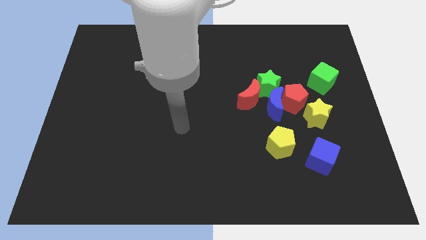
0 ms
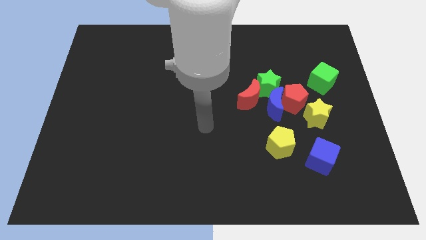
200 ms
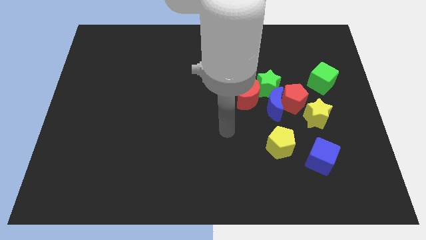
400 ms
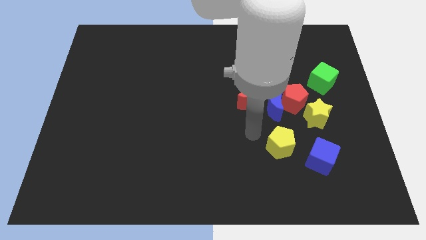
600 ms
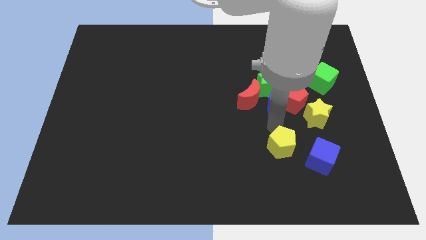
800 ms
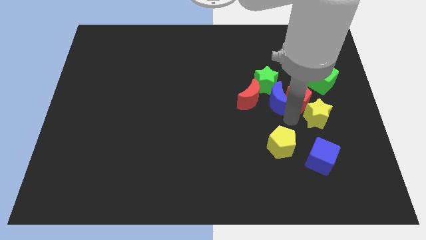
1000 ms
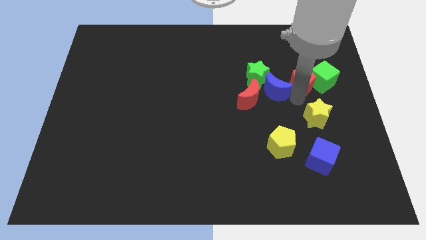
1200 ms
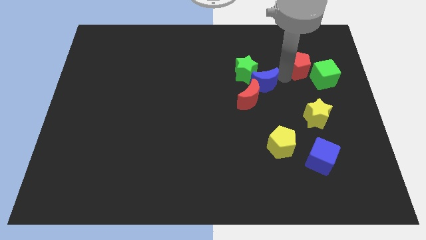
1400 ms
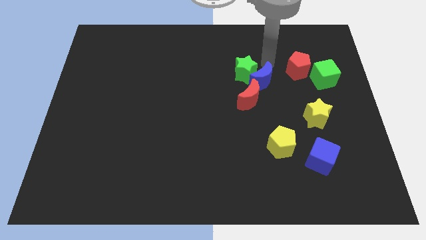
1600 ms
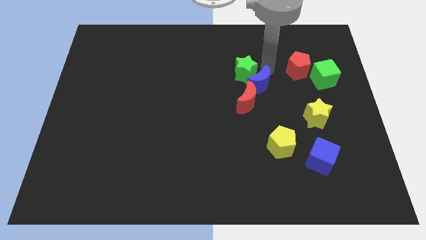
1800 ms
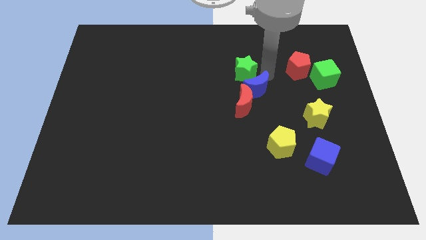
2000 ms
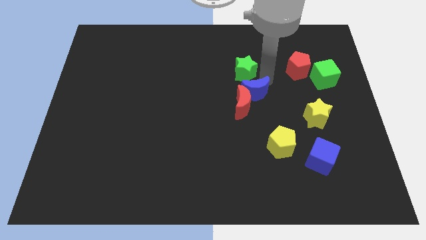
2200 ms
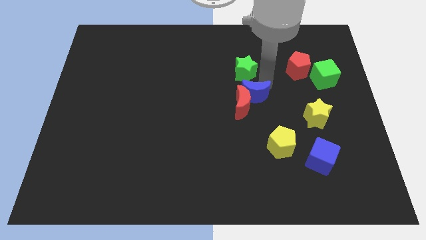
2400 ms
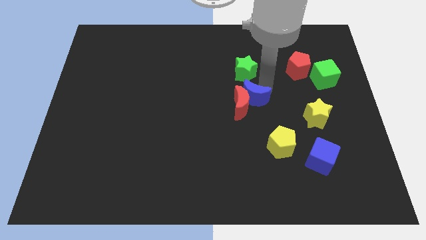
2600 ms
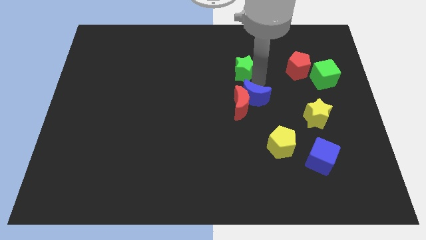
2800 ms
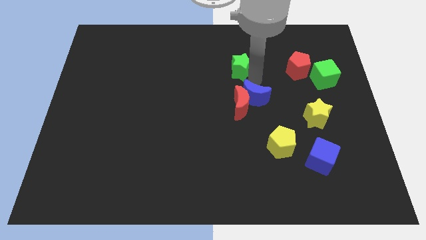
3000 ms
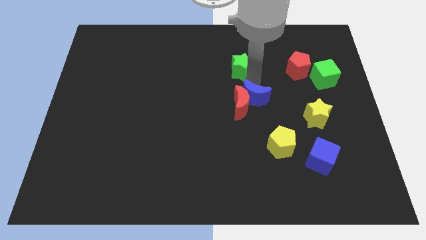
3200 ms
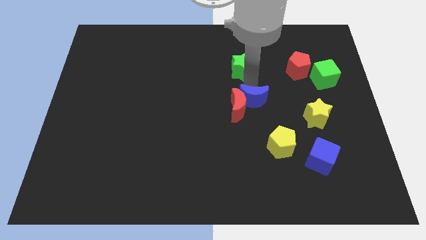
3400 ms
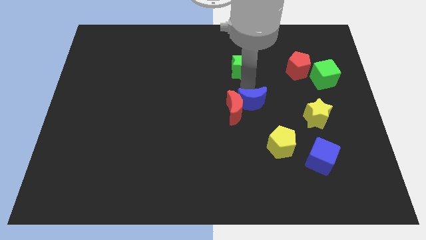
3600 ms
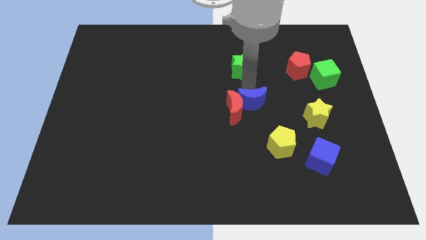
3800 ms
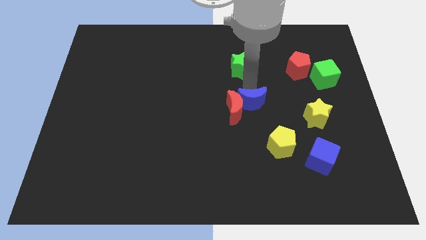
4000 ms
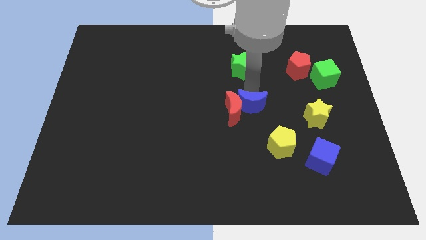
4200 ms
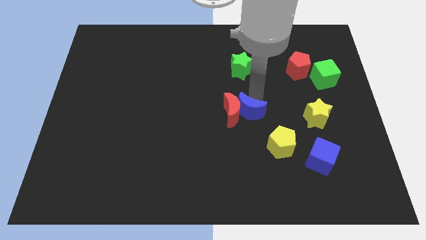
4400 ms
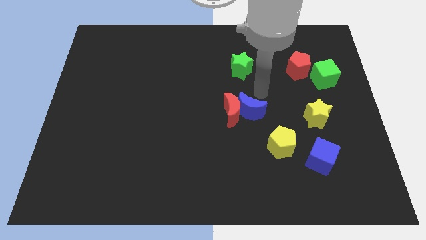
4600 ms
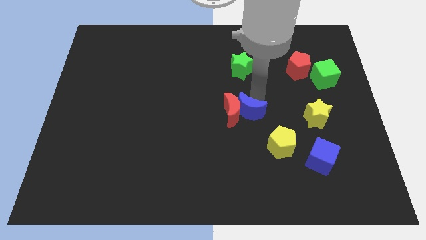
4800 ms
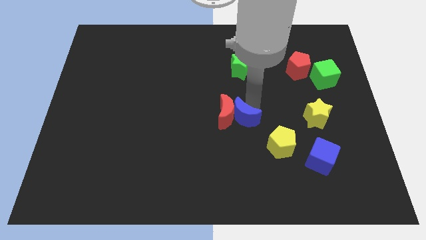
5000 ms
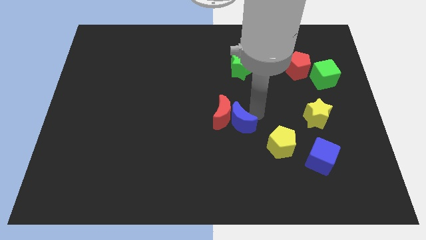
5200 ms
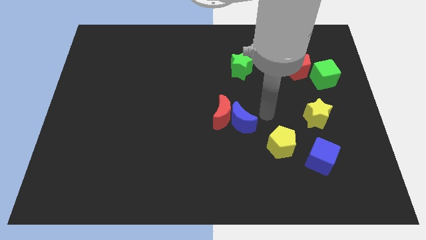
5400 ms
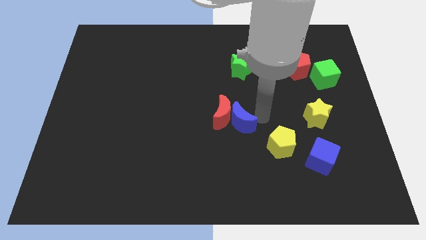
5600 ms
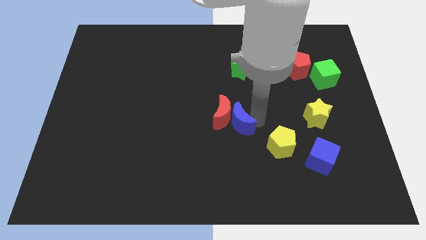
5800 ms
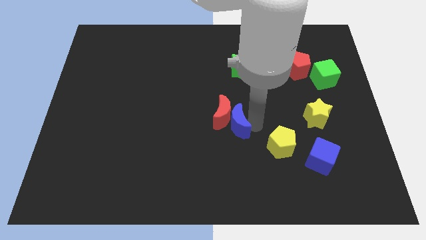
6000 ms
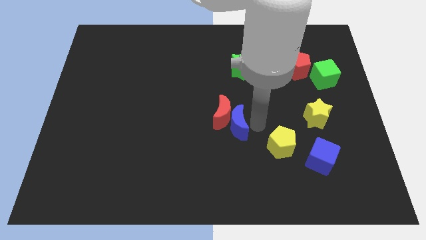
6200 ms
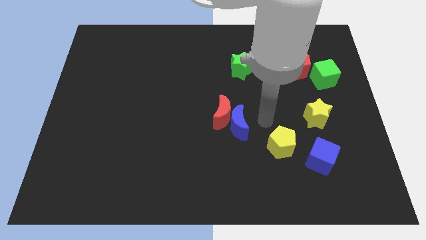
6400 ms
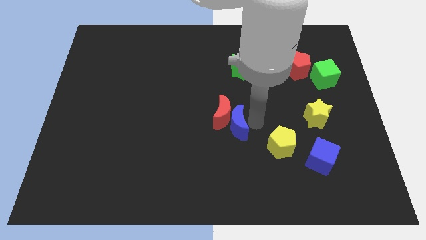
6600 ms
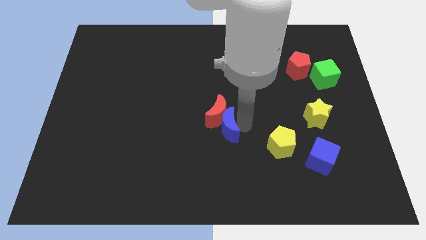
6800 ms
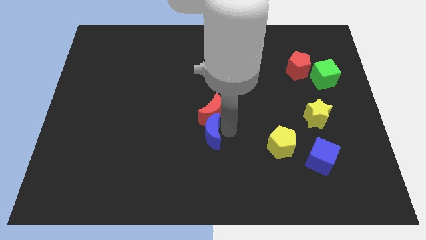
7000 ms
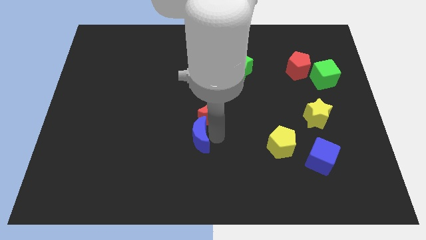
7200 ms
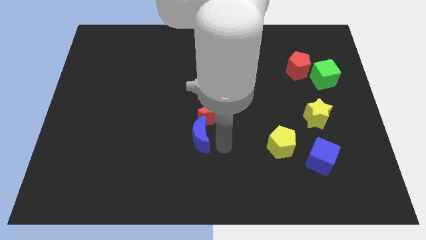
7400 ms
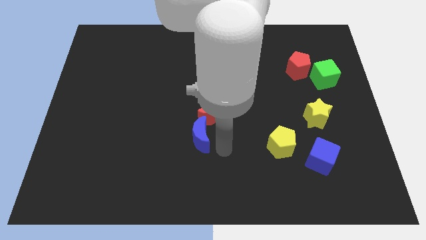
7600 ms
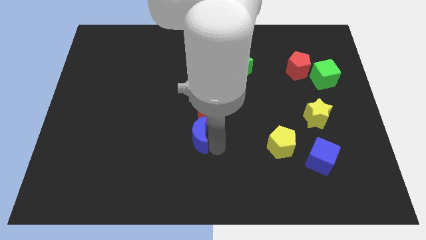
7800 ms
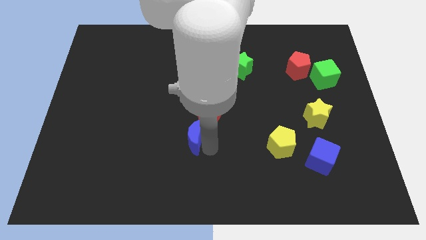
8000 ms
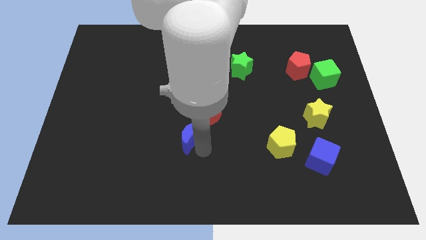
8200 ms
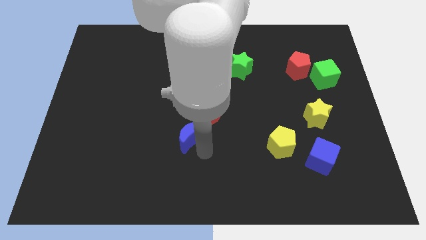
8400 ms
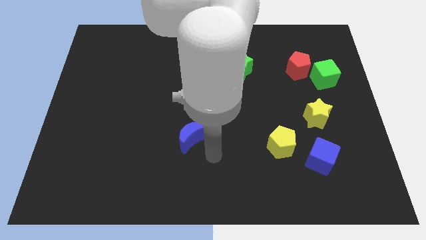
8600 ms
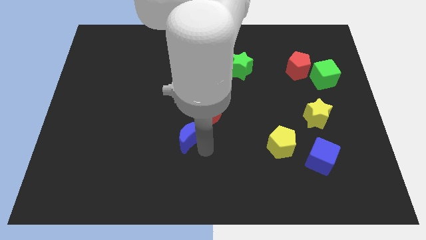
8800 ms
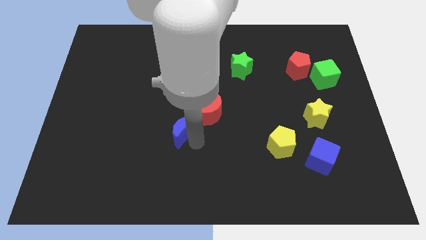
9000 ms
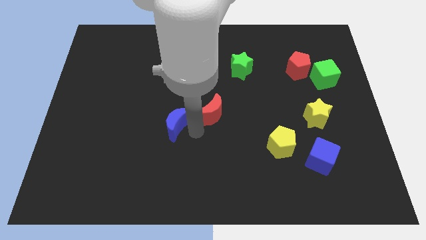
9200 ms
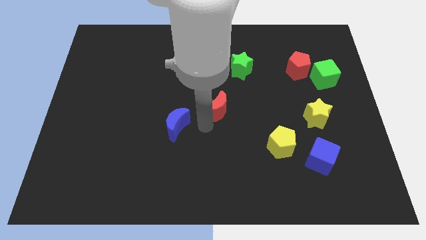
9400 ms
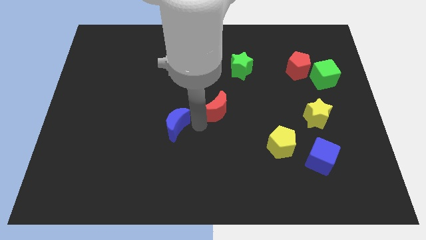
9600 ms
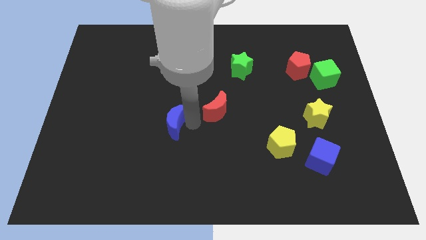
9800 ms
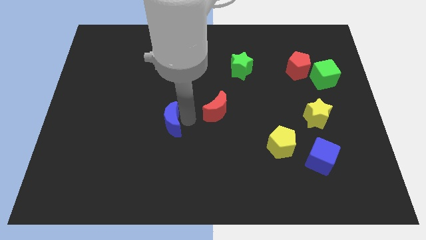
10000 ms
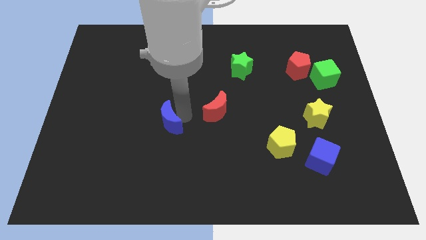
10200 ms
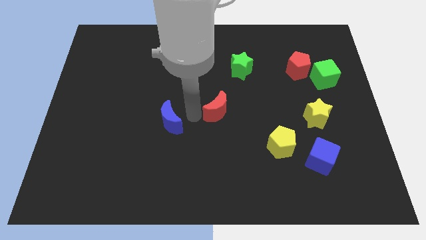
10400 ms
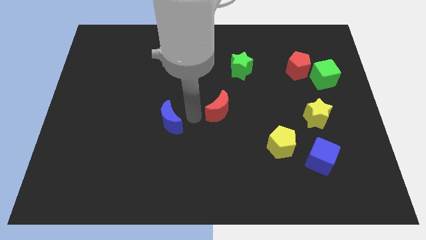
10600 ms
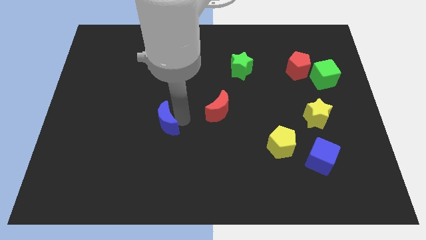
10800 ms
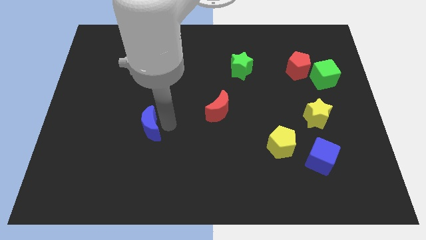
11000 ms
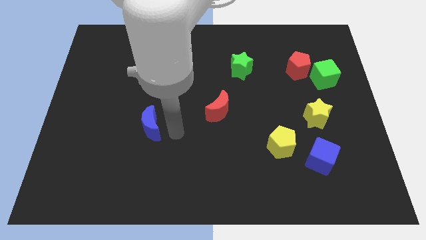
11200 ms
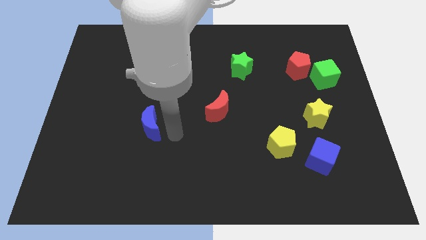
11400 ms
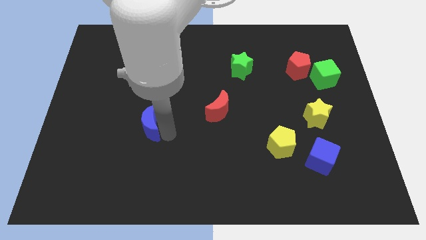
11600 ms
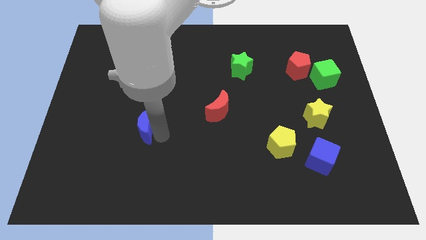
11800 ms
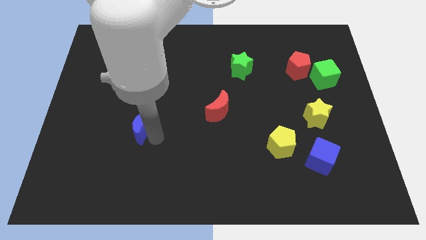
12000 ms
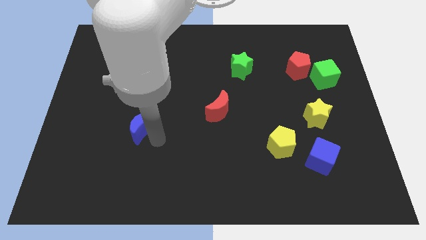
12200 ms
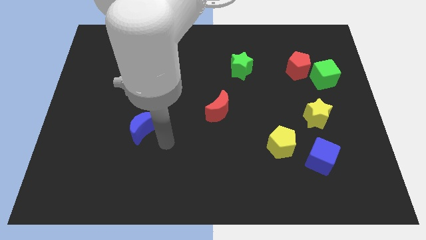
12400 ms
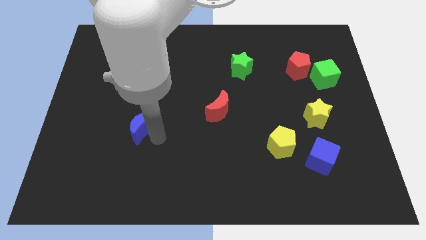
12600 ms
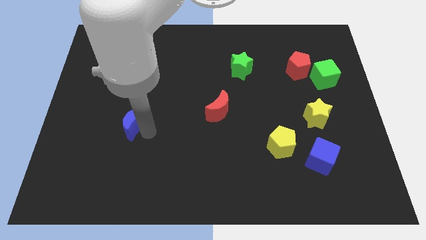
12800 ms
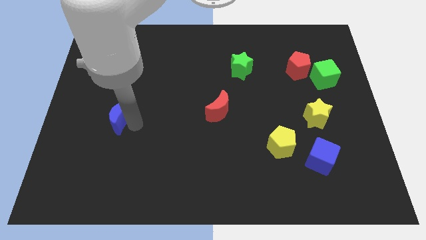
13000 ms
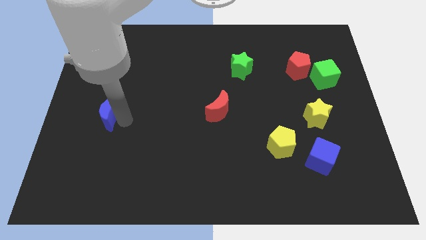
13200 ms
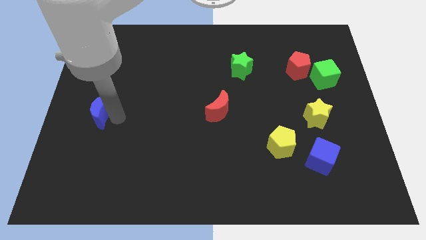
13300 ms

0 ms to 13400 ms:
slide the blue moon to the center left
